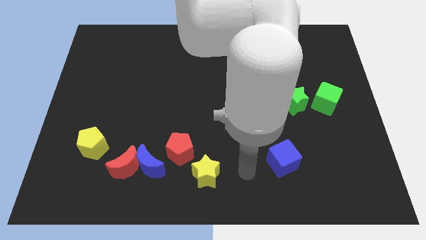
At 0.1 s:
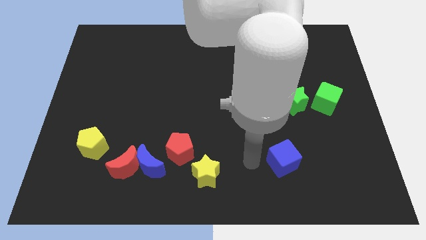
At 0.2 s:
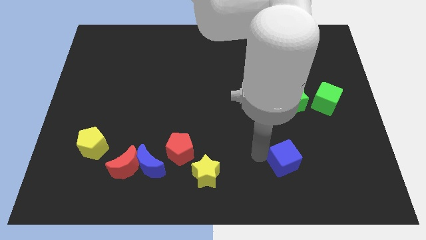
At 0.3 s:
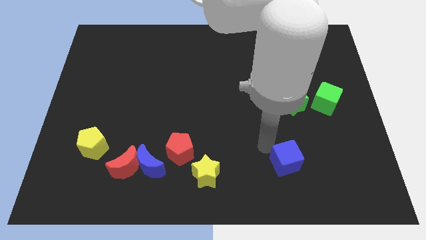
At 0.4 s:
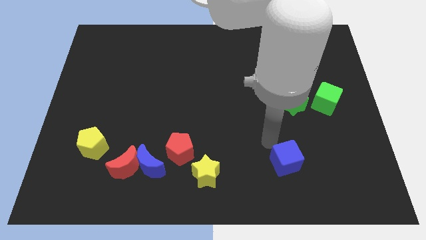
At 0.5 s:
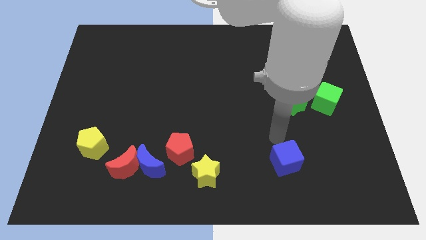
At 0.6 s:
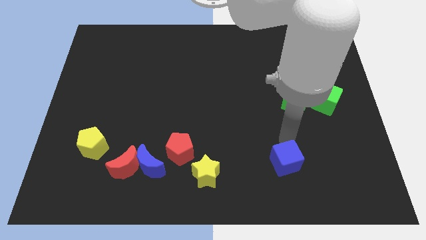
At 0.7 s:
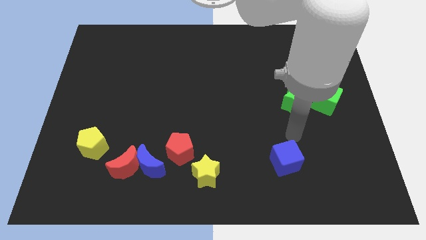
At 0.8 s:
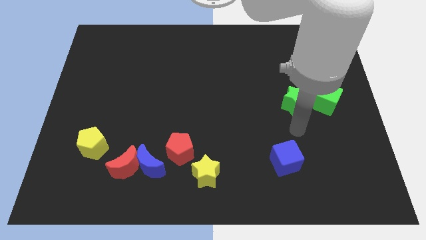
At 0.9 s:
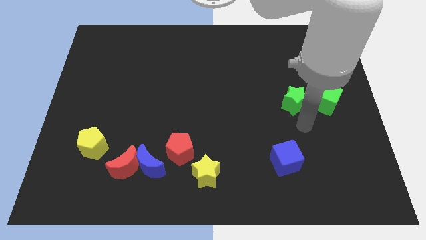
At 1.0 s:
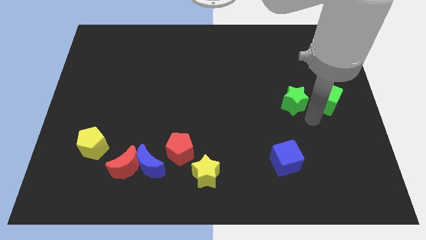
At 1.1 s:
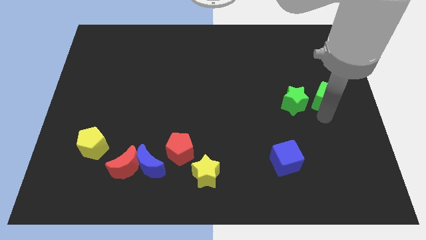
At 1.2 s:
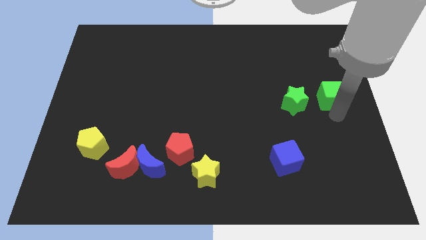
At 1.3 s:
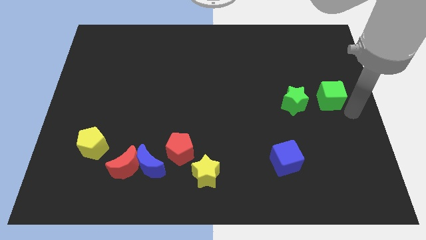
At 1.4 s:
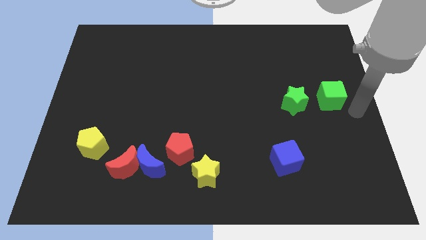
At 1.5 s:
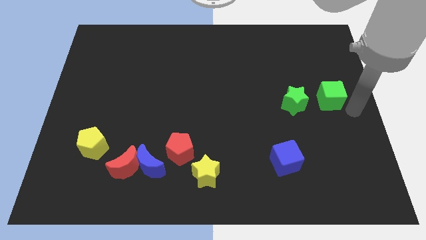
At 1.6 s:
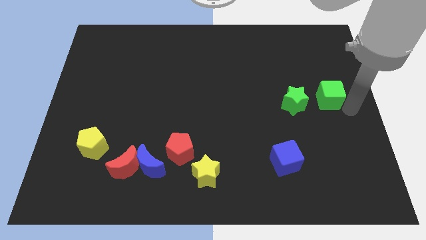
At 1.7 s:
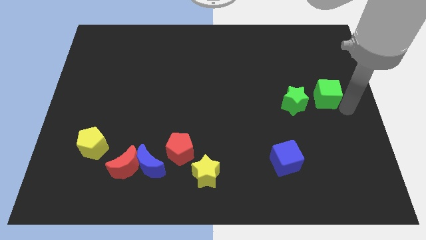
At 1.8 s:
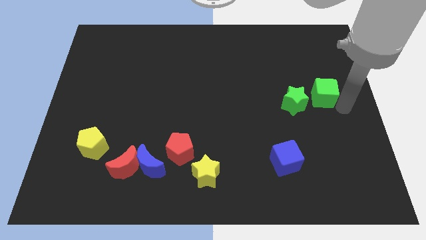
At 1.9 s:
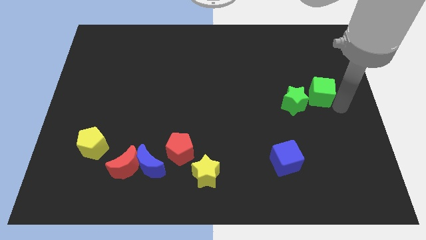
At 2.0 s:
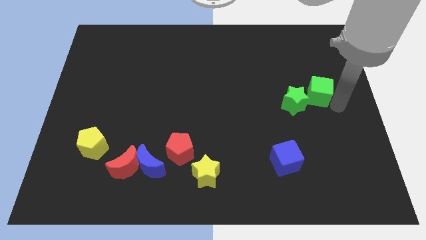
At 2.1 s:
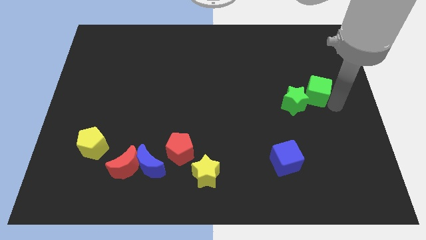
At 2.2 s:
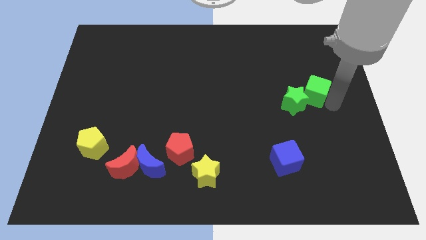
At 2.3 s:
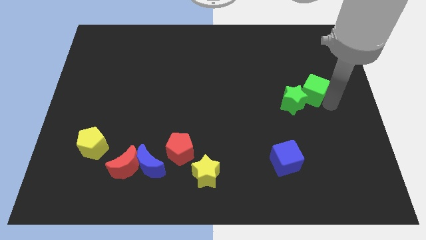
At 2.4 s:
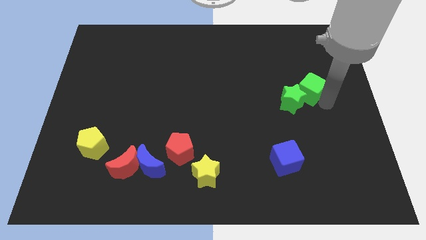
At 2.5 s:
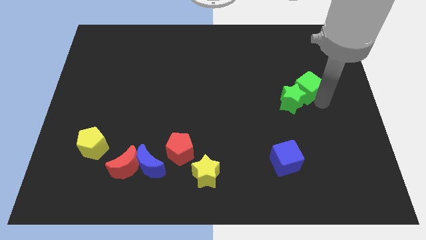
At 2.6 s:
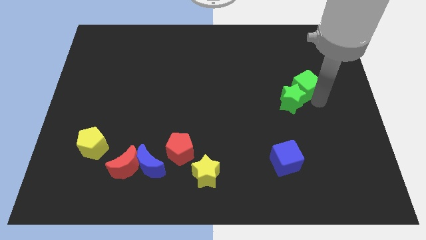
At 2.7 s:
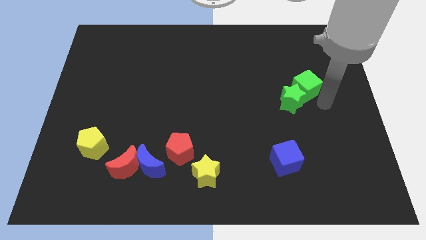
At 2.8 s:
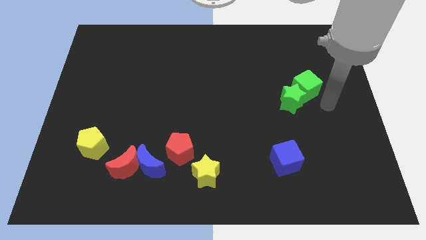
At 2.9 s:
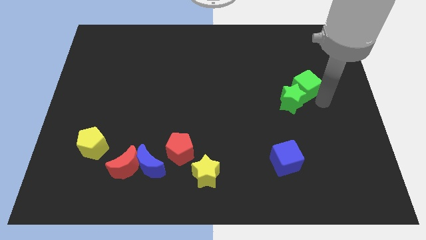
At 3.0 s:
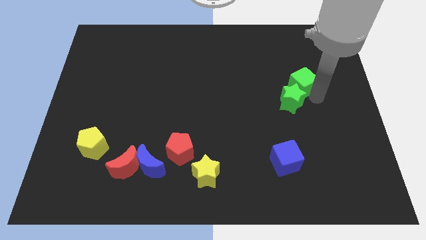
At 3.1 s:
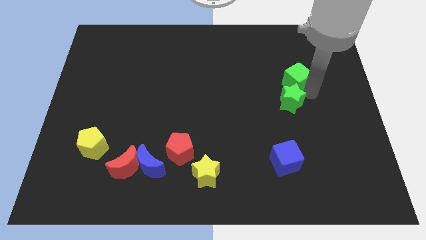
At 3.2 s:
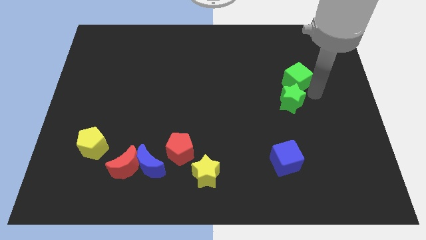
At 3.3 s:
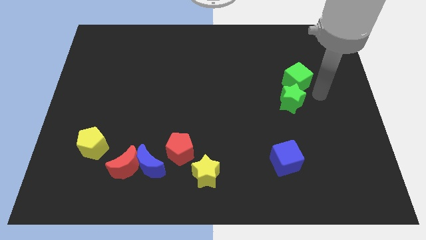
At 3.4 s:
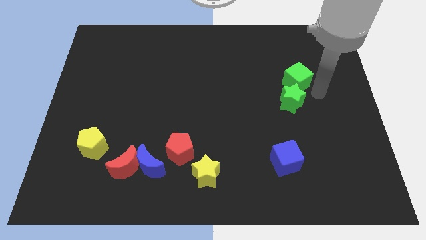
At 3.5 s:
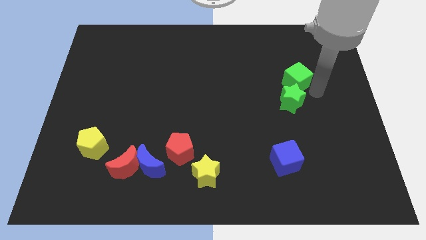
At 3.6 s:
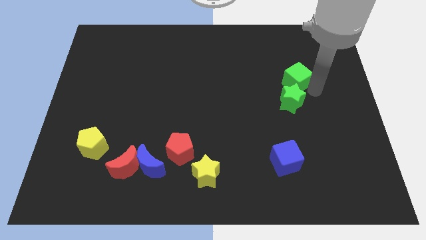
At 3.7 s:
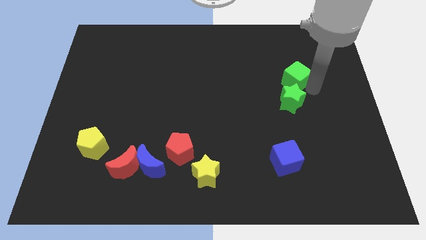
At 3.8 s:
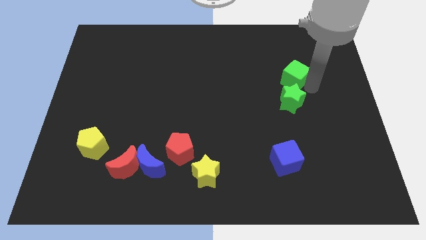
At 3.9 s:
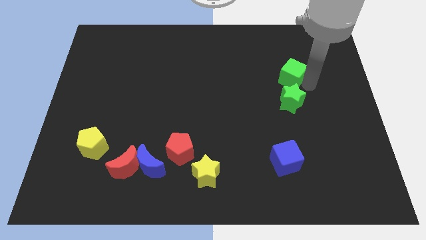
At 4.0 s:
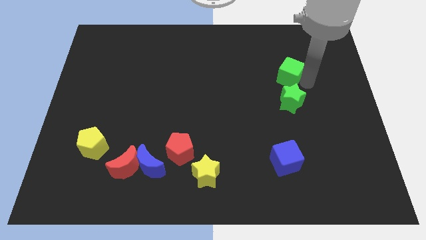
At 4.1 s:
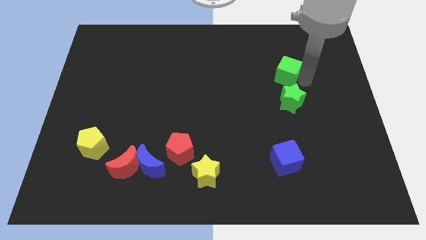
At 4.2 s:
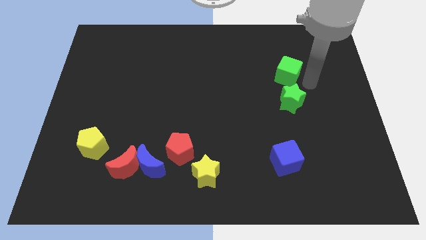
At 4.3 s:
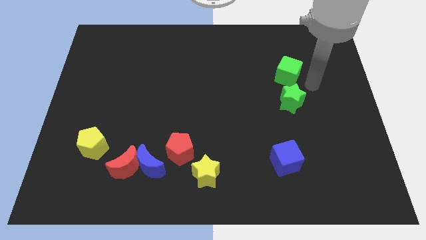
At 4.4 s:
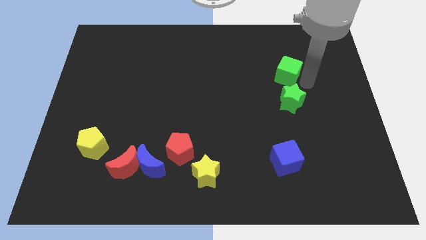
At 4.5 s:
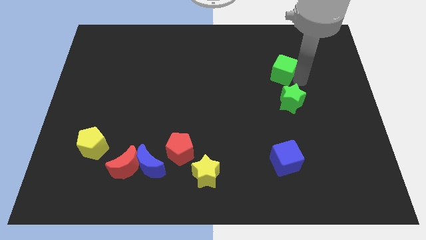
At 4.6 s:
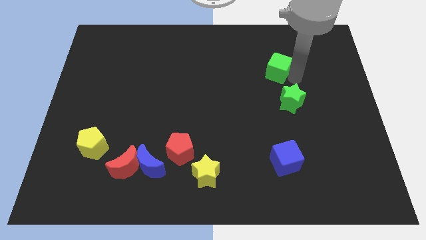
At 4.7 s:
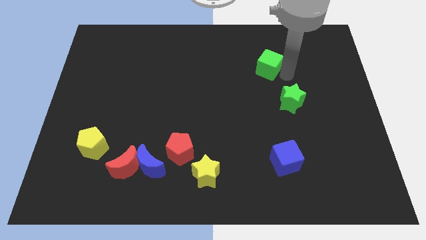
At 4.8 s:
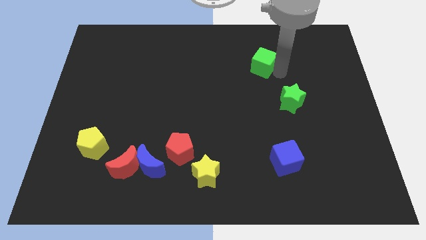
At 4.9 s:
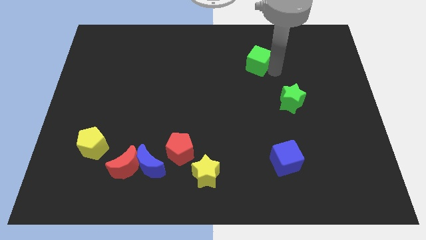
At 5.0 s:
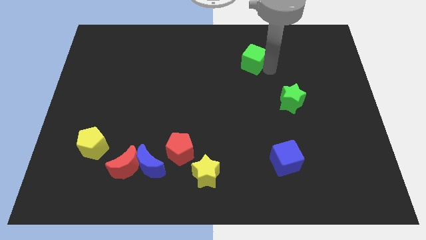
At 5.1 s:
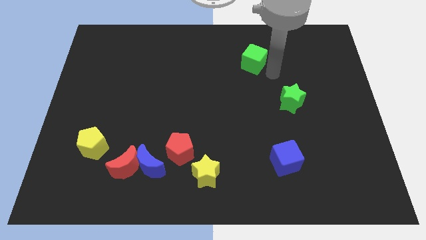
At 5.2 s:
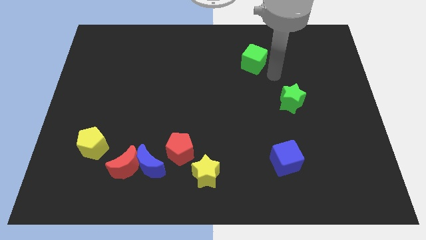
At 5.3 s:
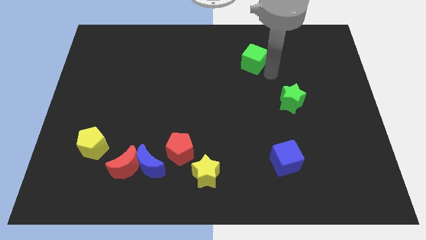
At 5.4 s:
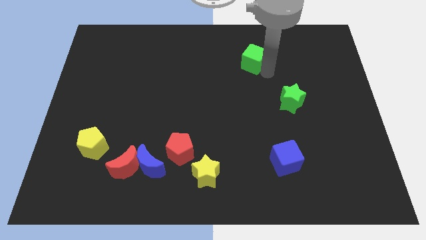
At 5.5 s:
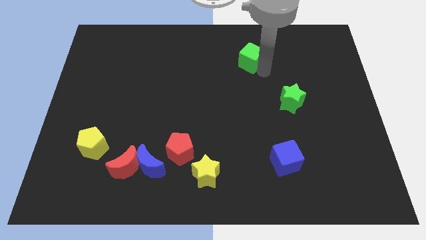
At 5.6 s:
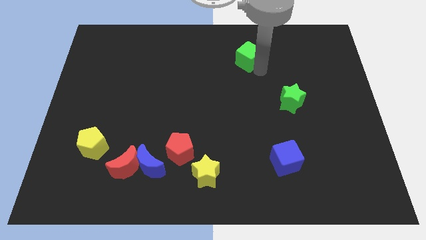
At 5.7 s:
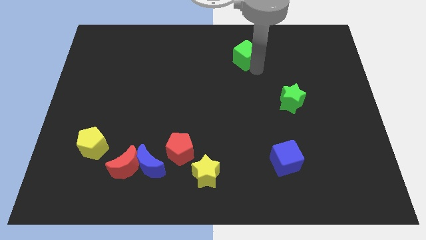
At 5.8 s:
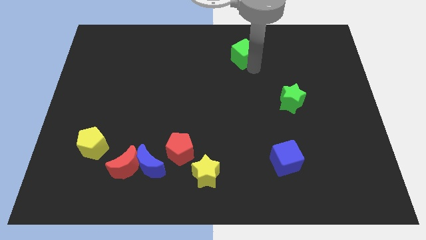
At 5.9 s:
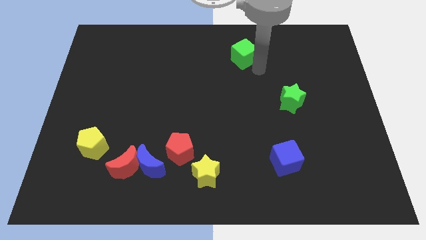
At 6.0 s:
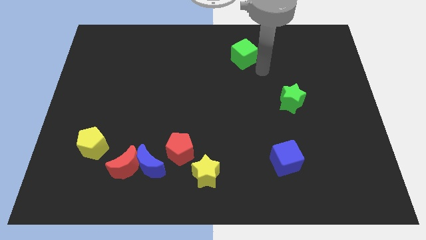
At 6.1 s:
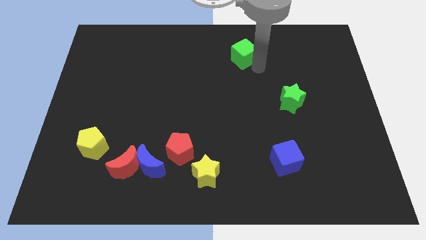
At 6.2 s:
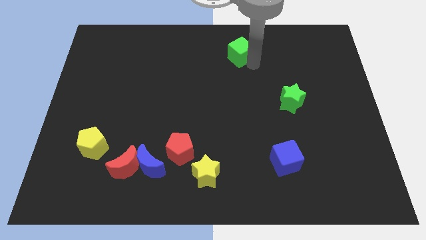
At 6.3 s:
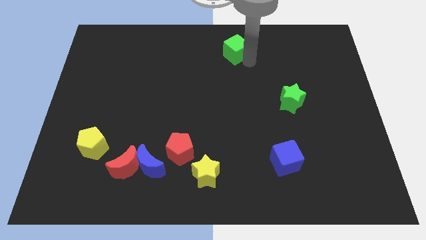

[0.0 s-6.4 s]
slide the green cube to the top side
